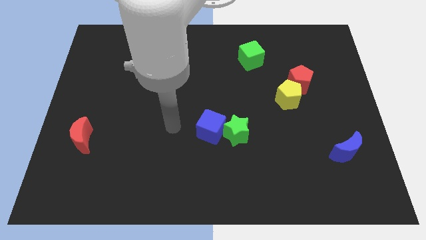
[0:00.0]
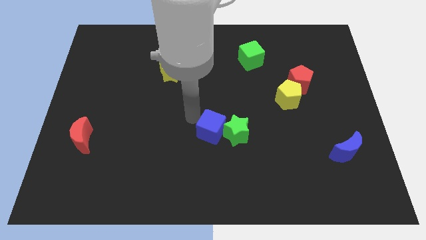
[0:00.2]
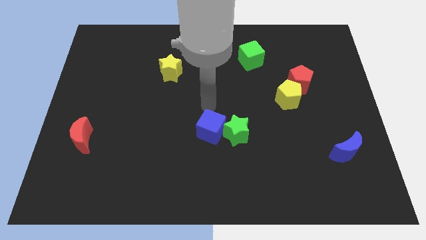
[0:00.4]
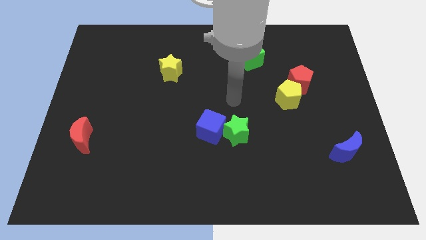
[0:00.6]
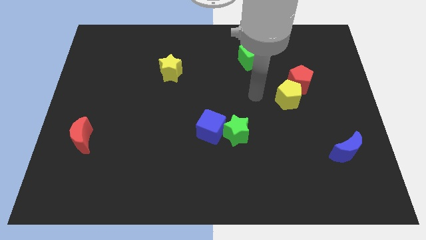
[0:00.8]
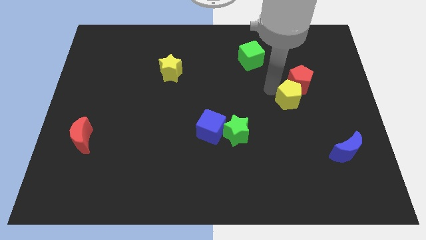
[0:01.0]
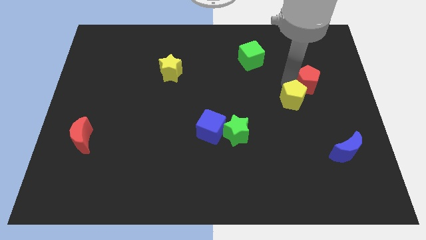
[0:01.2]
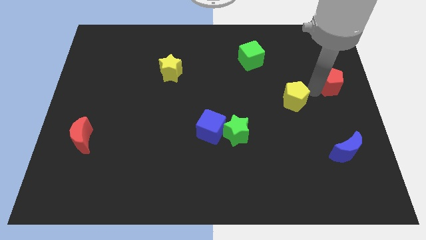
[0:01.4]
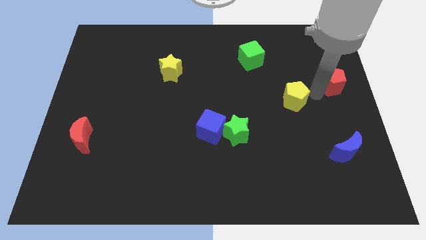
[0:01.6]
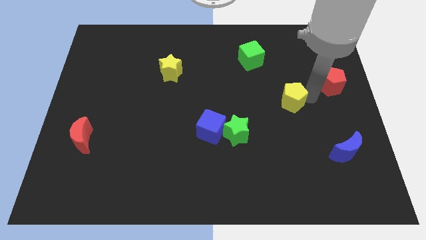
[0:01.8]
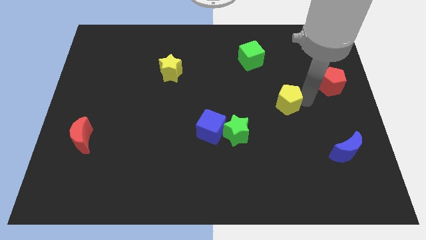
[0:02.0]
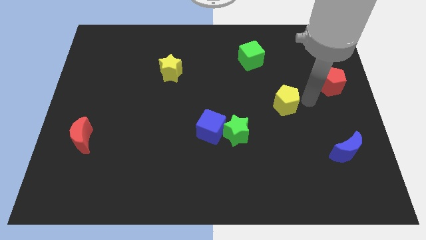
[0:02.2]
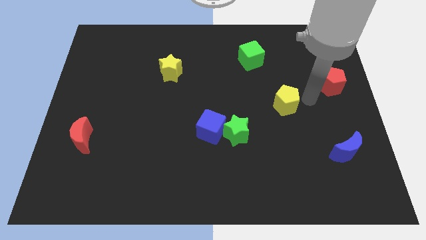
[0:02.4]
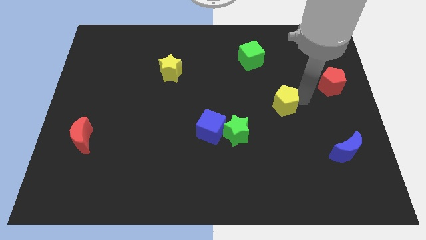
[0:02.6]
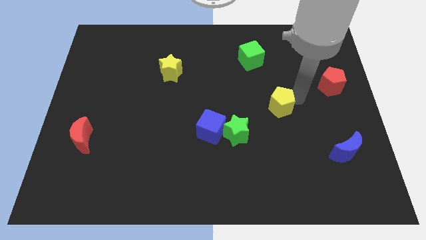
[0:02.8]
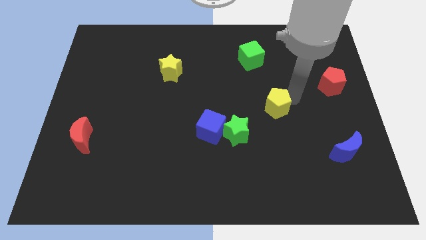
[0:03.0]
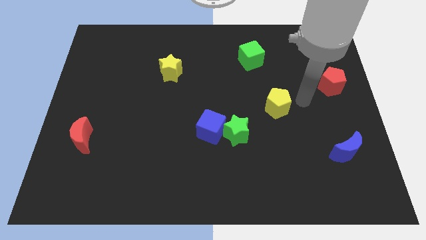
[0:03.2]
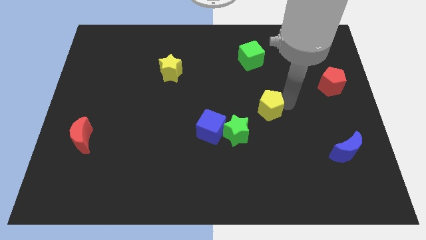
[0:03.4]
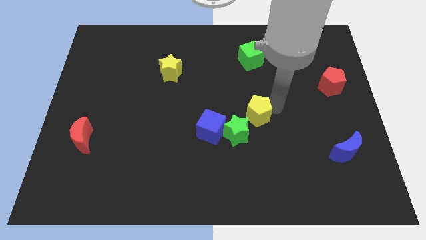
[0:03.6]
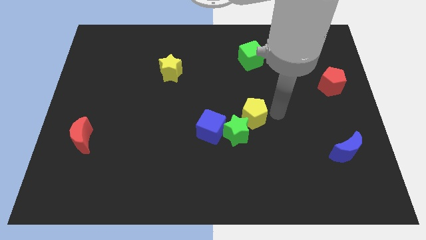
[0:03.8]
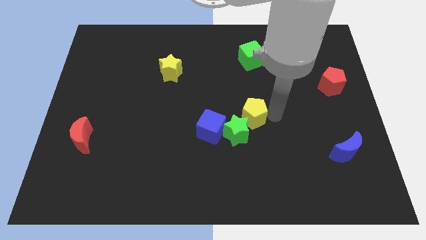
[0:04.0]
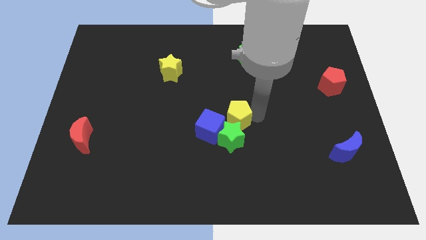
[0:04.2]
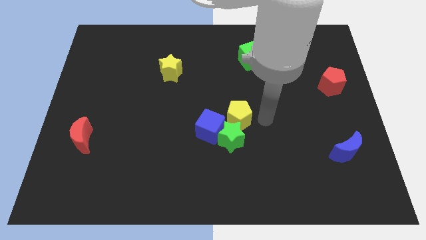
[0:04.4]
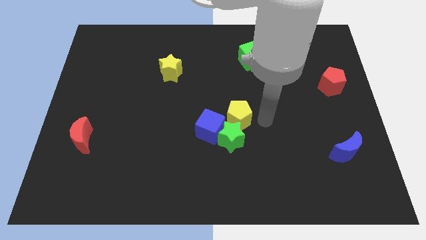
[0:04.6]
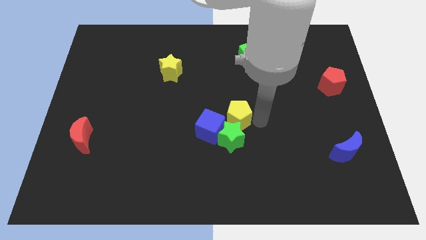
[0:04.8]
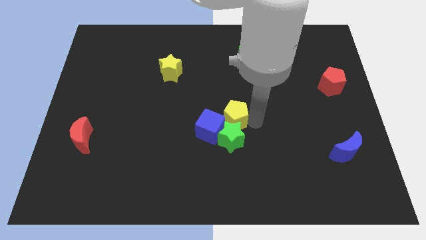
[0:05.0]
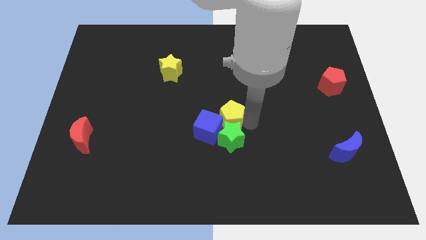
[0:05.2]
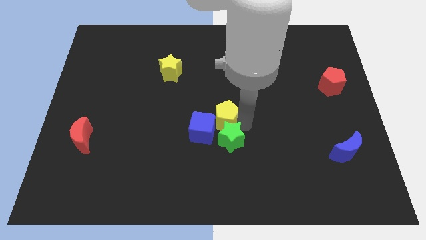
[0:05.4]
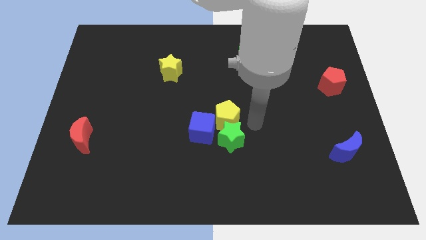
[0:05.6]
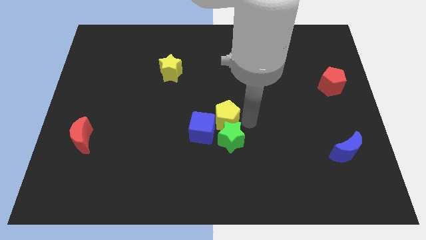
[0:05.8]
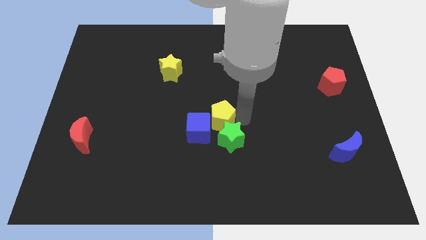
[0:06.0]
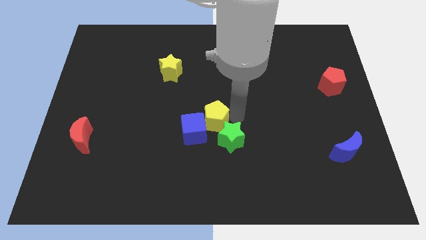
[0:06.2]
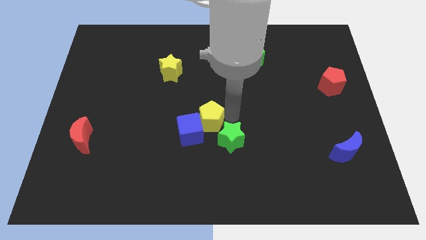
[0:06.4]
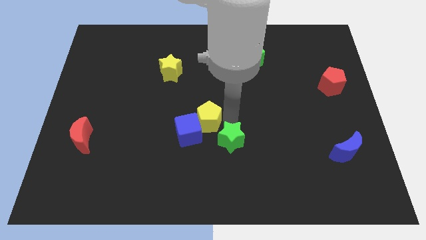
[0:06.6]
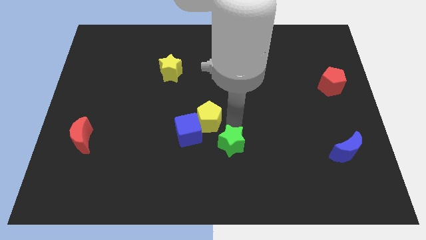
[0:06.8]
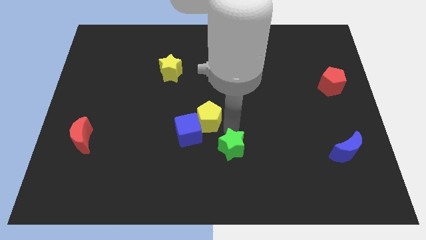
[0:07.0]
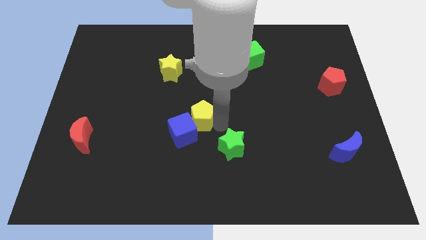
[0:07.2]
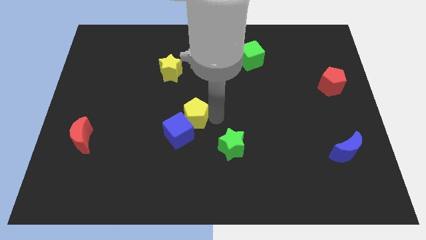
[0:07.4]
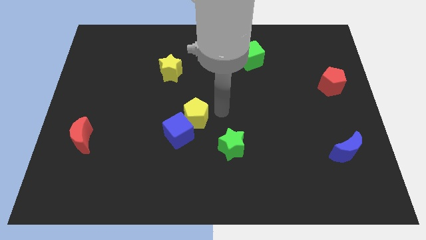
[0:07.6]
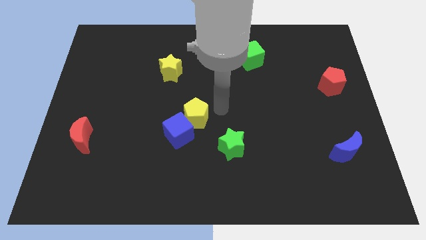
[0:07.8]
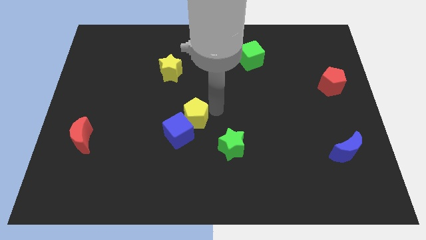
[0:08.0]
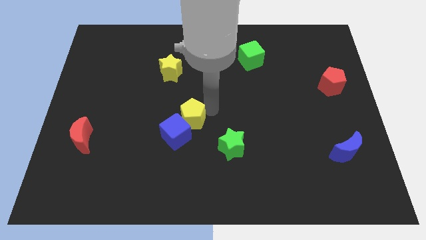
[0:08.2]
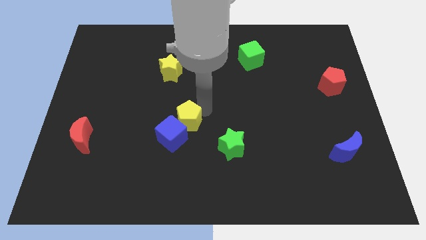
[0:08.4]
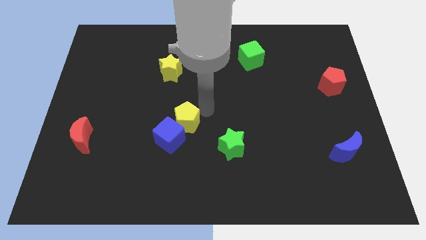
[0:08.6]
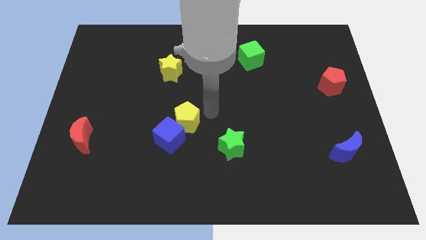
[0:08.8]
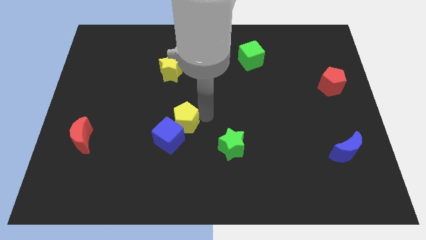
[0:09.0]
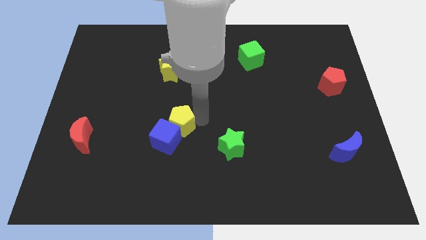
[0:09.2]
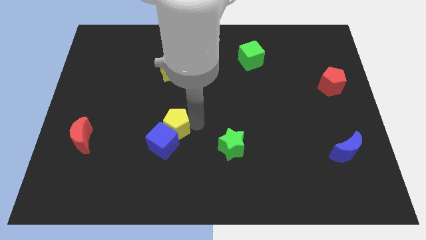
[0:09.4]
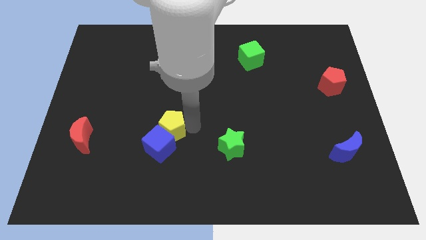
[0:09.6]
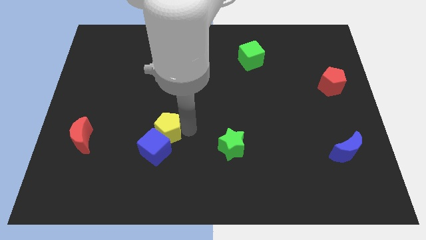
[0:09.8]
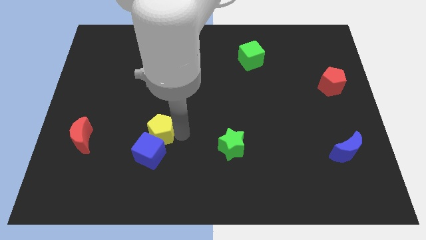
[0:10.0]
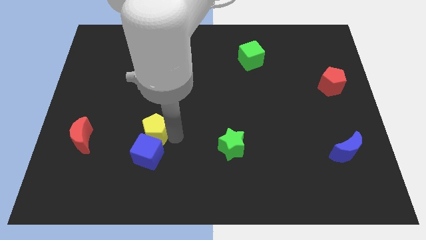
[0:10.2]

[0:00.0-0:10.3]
move the yellow pentagon to the right of the red moon

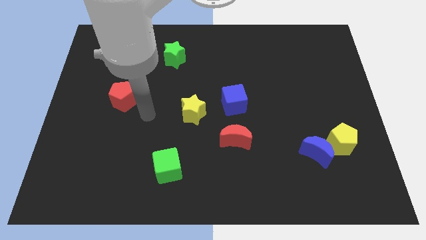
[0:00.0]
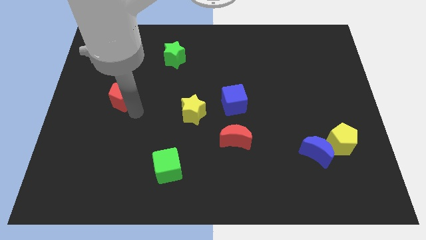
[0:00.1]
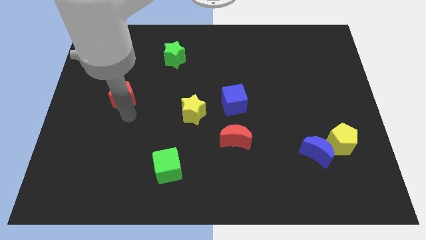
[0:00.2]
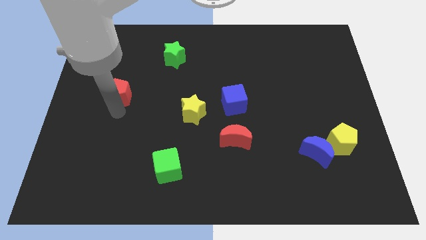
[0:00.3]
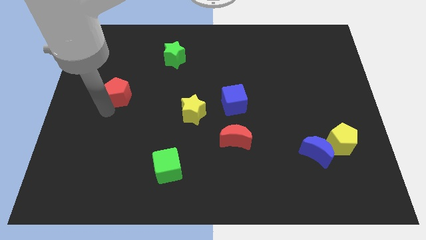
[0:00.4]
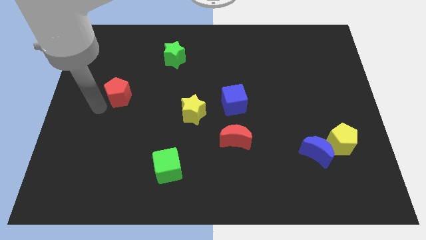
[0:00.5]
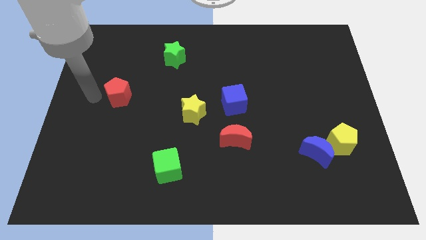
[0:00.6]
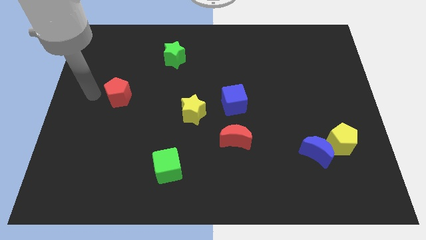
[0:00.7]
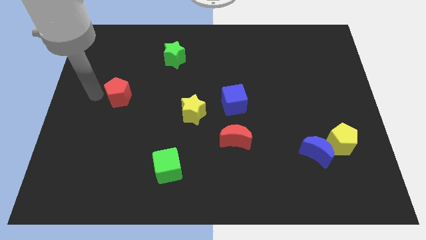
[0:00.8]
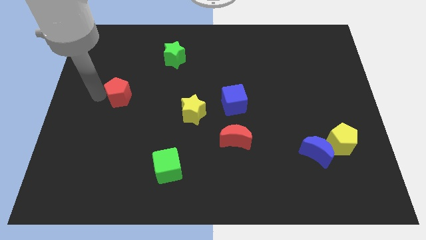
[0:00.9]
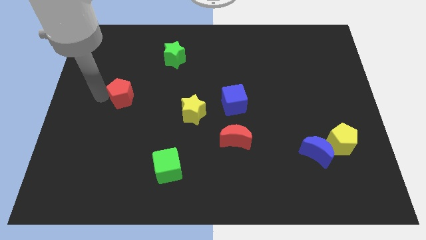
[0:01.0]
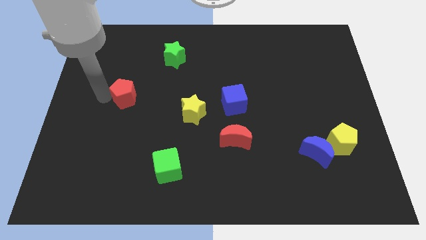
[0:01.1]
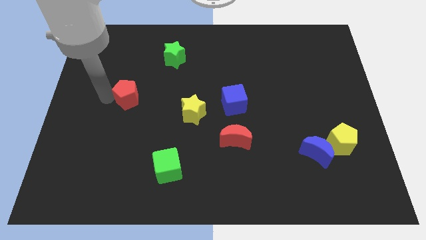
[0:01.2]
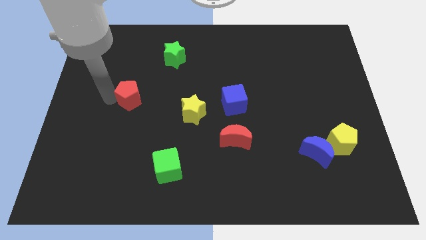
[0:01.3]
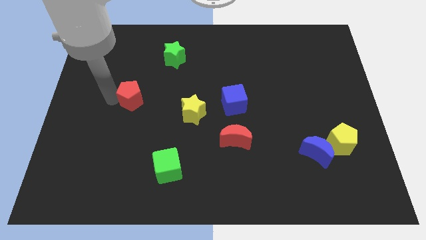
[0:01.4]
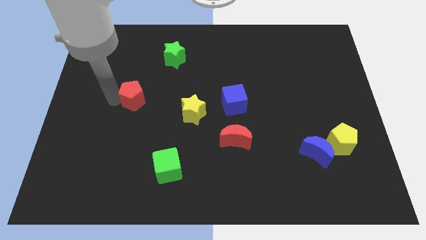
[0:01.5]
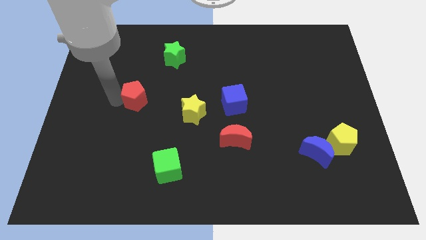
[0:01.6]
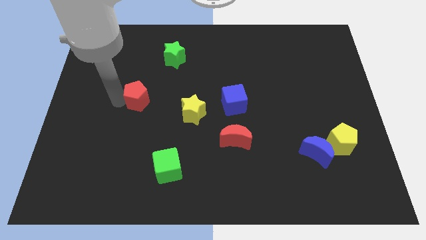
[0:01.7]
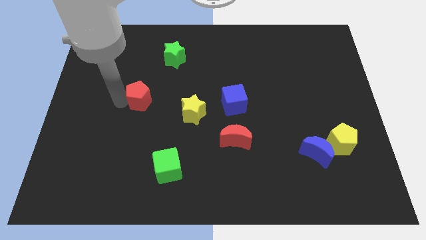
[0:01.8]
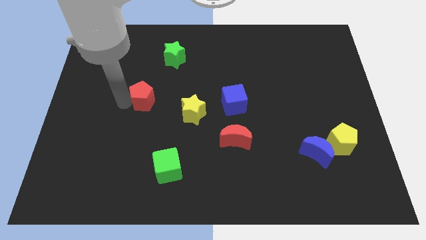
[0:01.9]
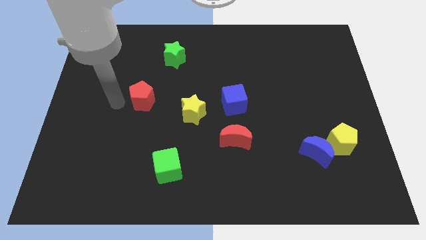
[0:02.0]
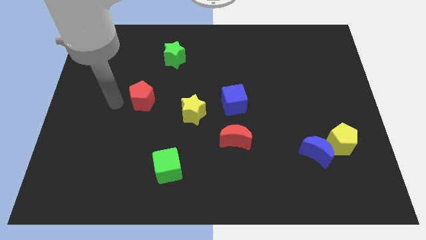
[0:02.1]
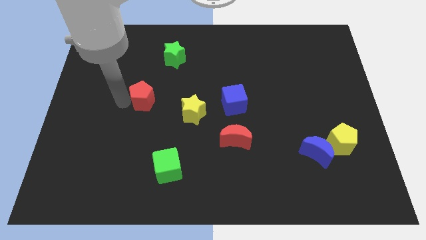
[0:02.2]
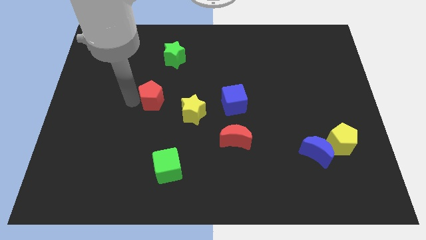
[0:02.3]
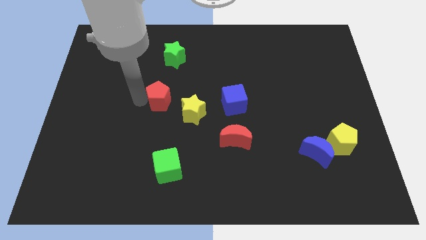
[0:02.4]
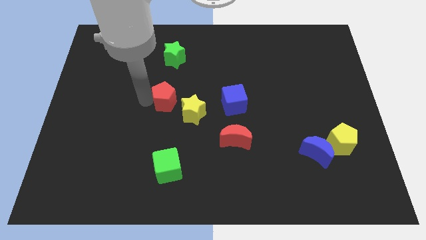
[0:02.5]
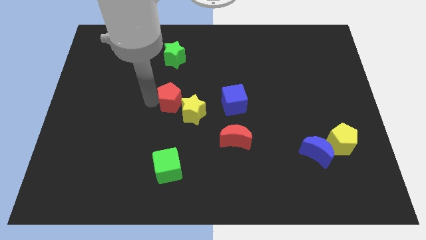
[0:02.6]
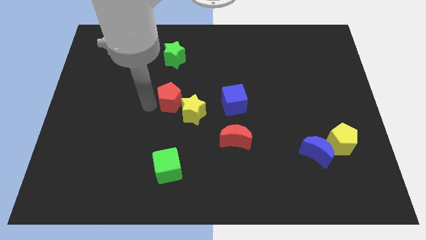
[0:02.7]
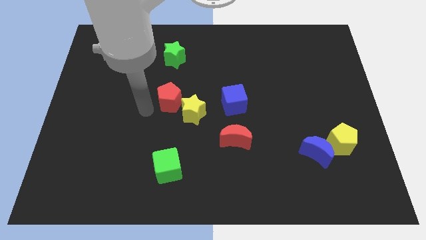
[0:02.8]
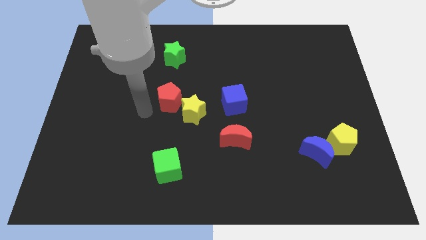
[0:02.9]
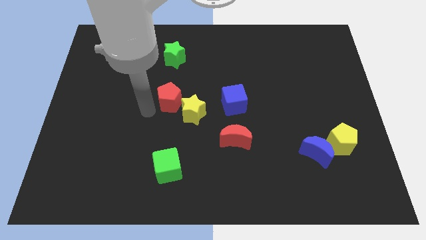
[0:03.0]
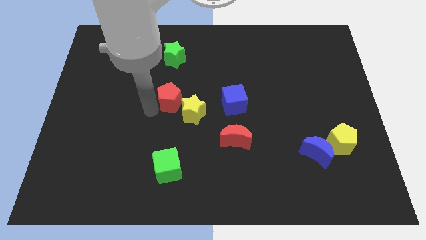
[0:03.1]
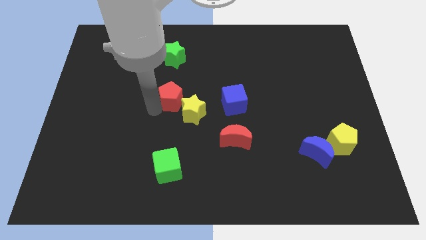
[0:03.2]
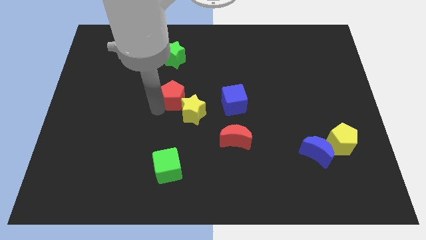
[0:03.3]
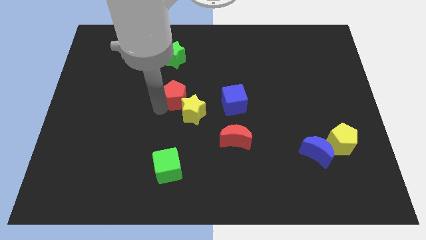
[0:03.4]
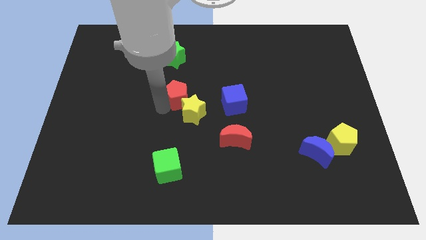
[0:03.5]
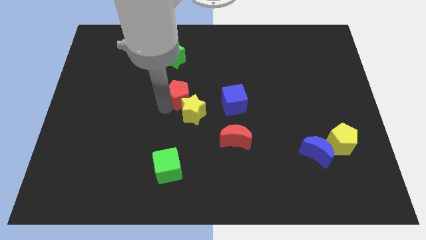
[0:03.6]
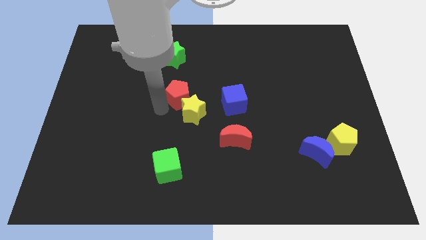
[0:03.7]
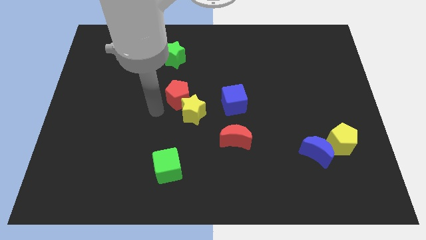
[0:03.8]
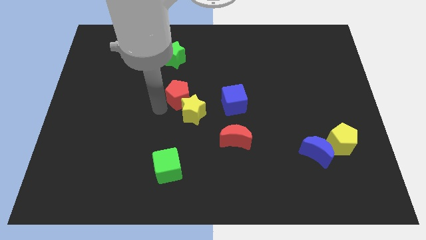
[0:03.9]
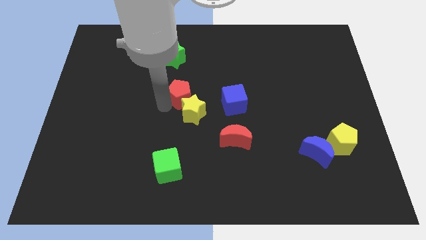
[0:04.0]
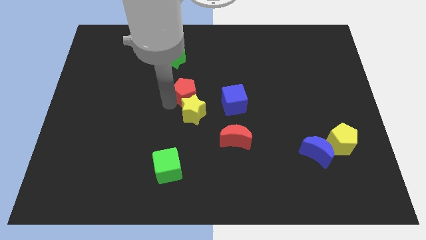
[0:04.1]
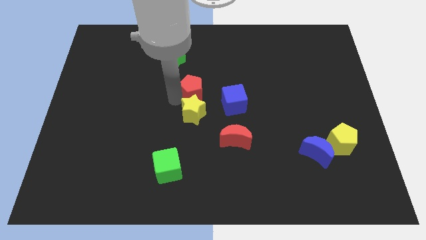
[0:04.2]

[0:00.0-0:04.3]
push the red pentagon diagonally up and to the right of the yellow star
